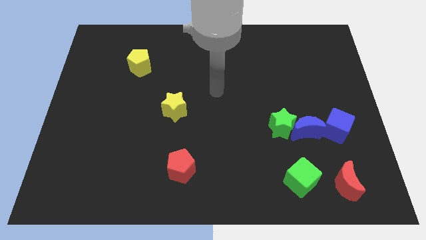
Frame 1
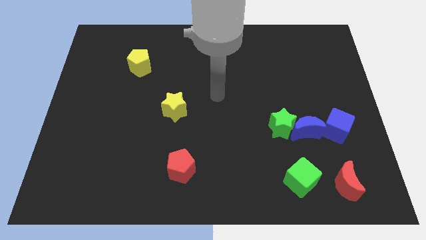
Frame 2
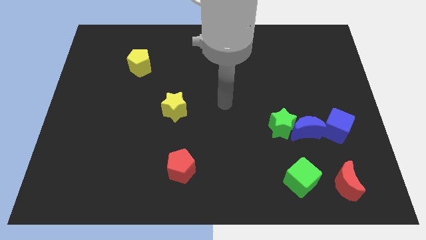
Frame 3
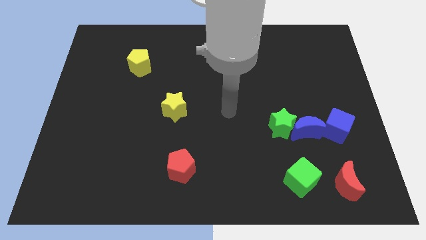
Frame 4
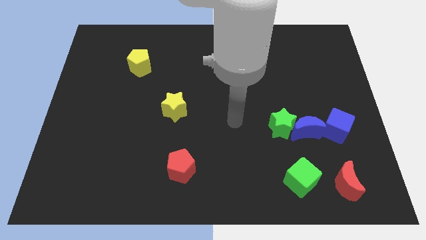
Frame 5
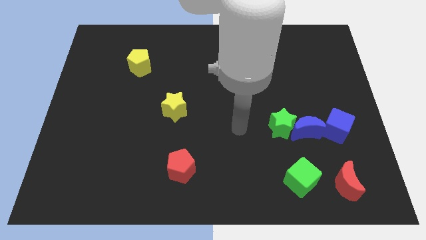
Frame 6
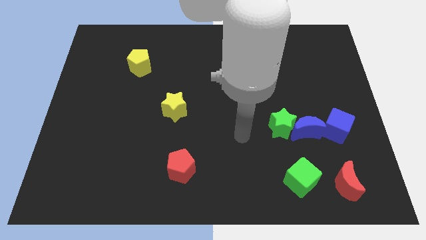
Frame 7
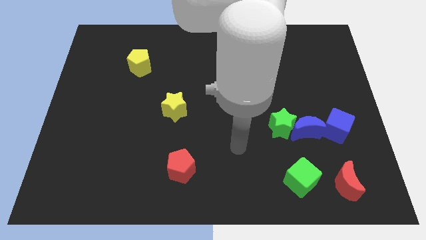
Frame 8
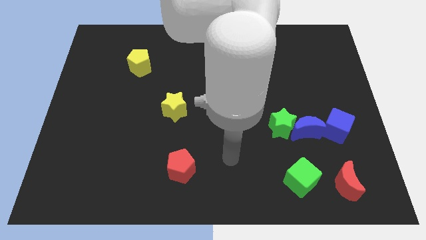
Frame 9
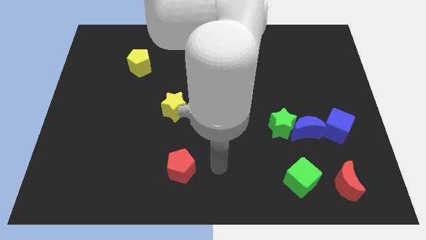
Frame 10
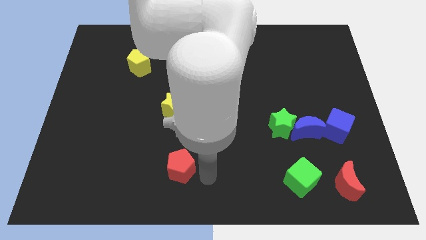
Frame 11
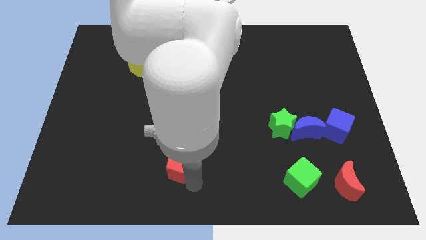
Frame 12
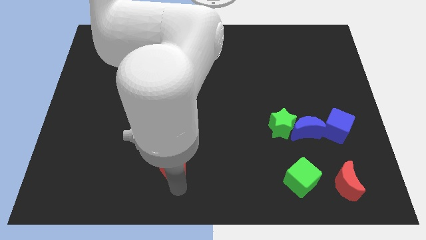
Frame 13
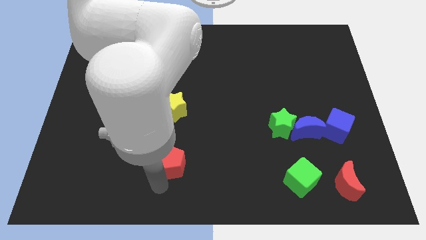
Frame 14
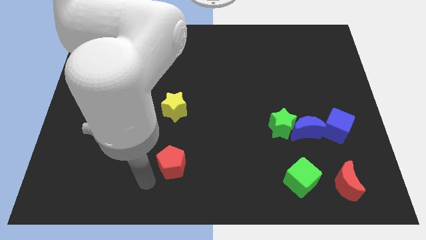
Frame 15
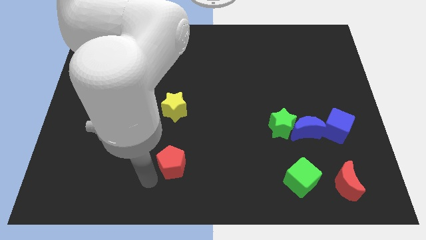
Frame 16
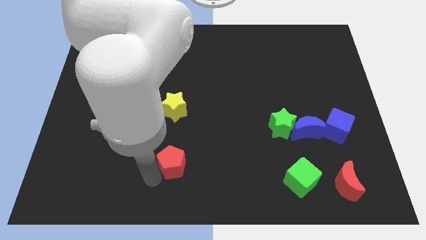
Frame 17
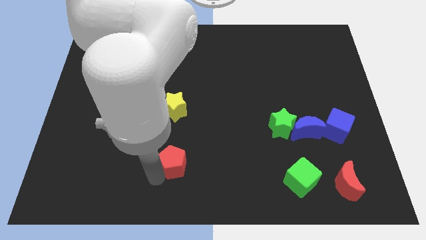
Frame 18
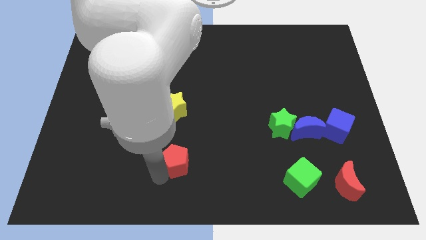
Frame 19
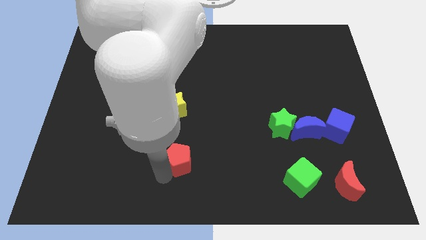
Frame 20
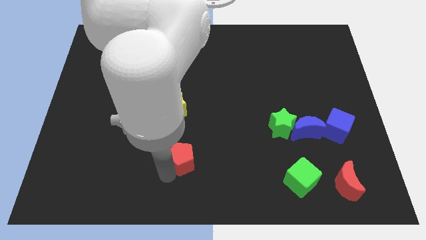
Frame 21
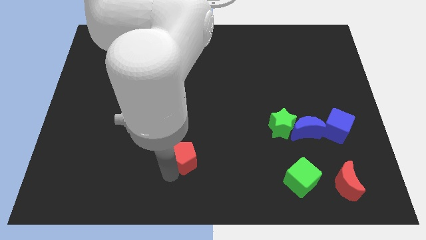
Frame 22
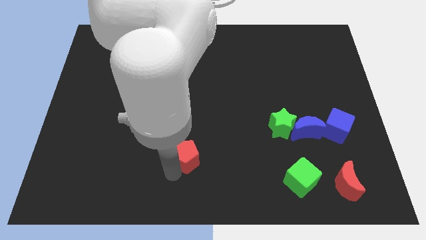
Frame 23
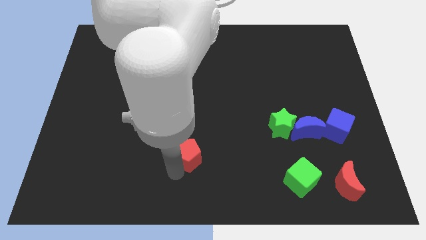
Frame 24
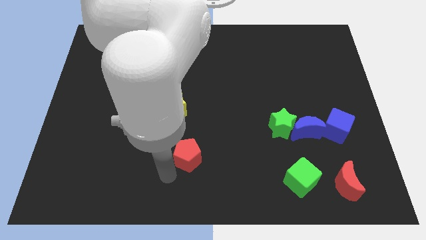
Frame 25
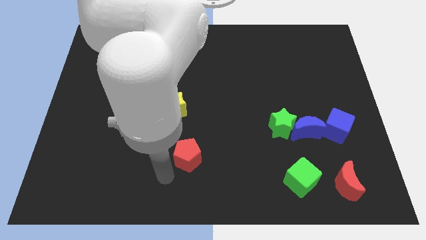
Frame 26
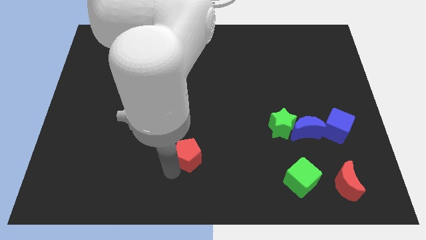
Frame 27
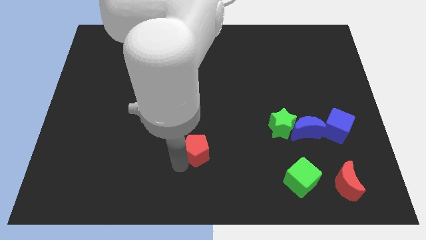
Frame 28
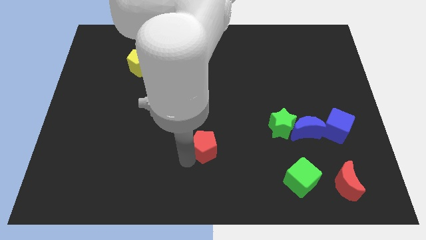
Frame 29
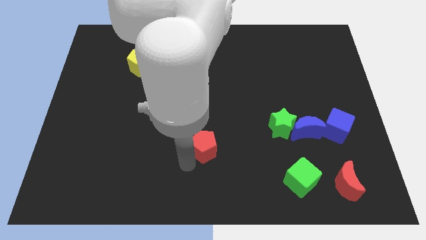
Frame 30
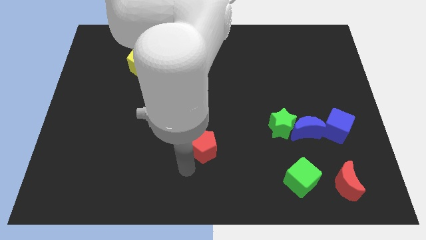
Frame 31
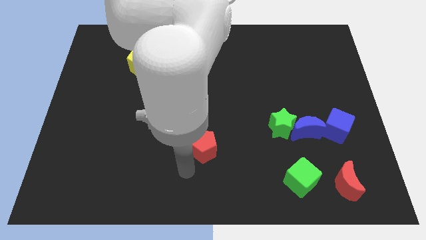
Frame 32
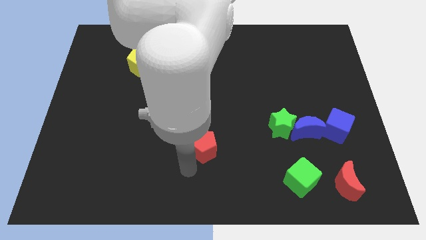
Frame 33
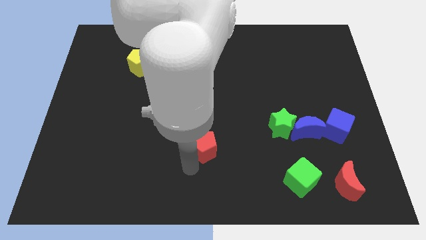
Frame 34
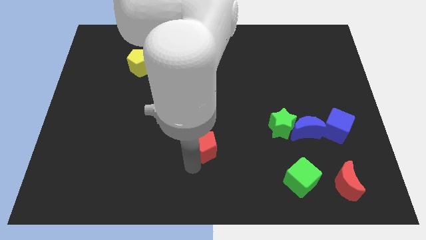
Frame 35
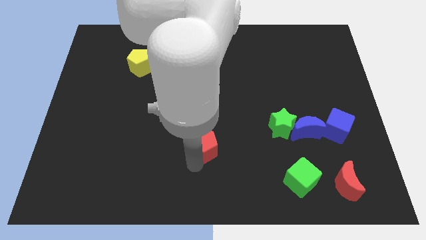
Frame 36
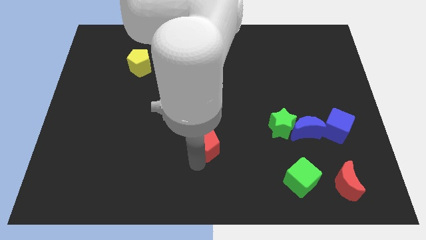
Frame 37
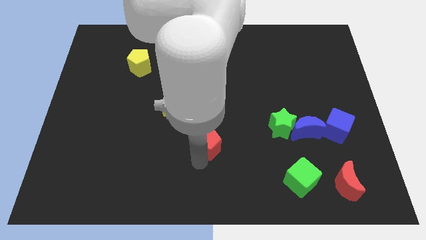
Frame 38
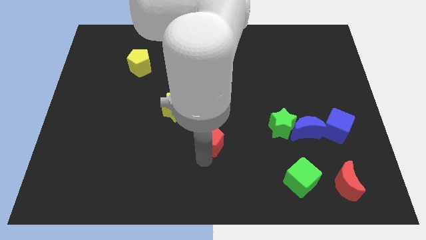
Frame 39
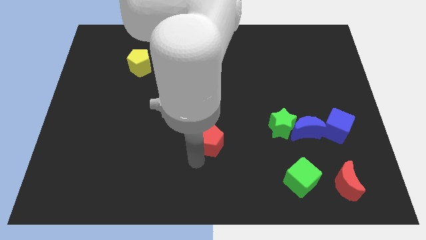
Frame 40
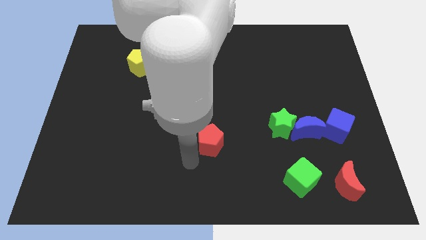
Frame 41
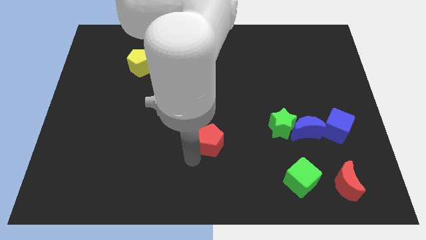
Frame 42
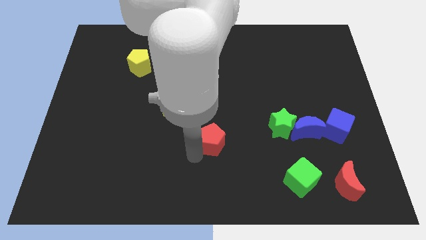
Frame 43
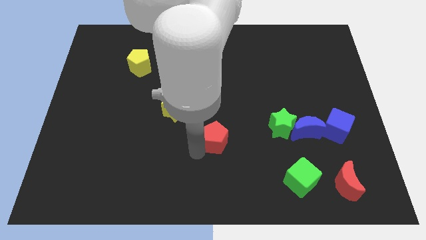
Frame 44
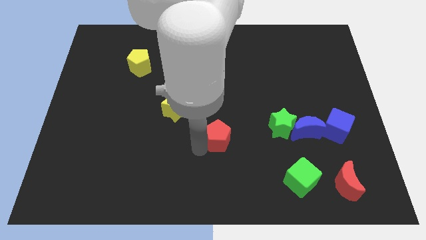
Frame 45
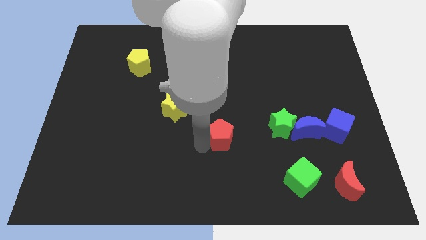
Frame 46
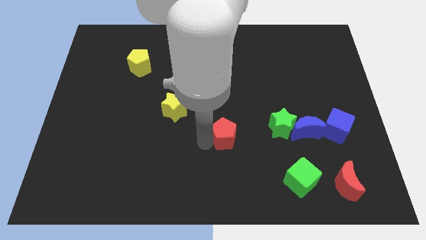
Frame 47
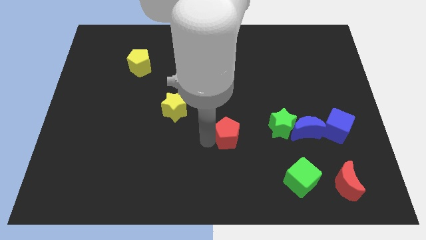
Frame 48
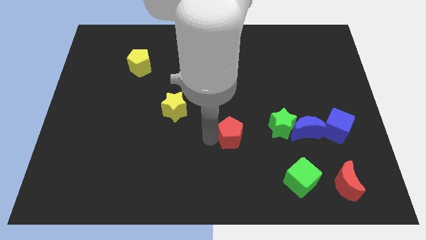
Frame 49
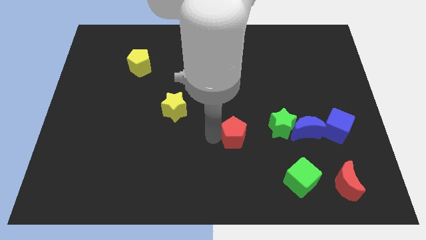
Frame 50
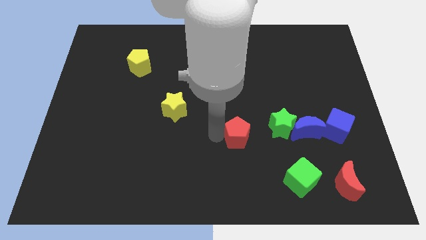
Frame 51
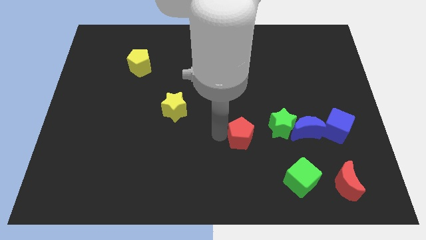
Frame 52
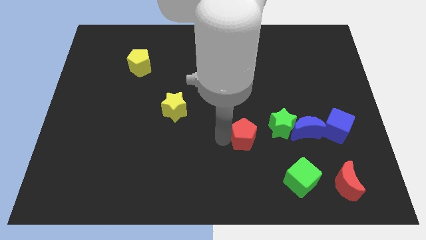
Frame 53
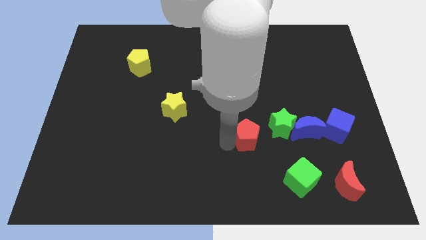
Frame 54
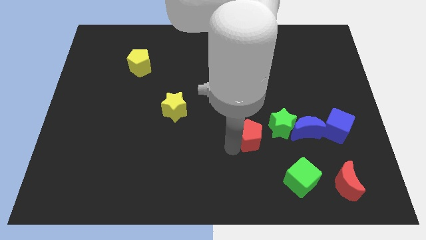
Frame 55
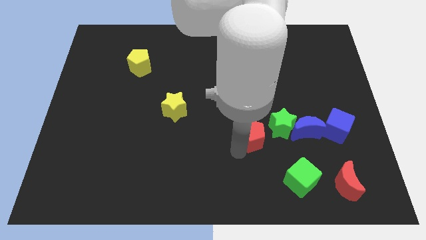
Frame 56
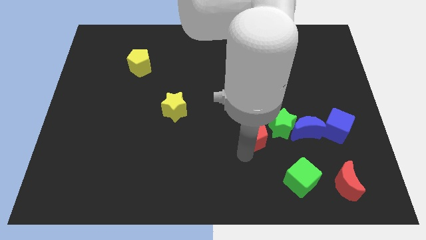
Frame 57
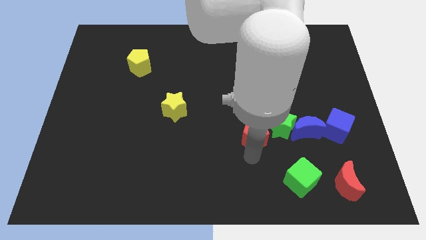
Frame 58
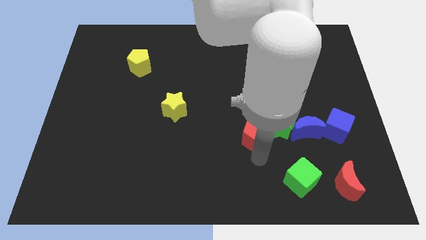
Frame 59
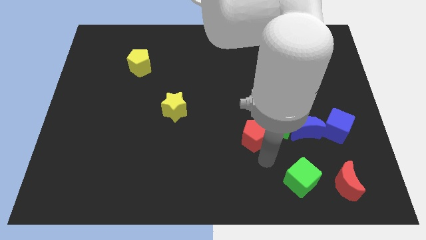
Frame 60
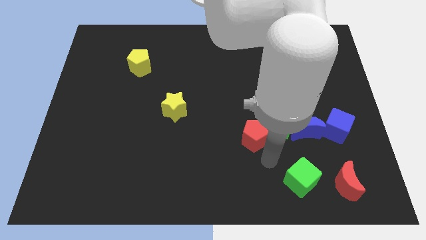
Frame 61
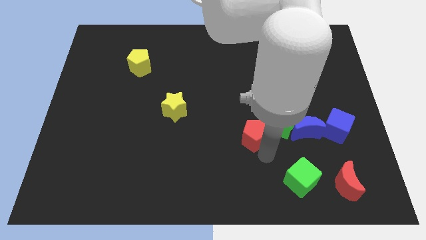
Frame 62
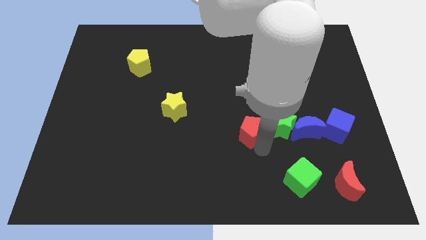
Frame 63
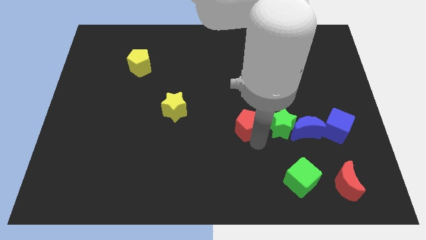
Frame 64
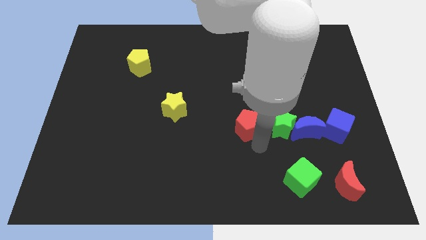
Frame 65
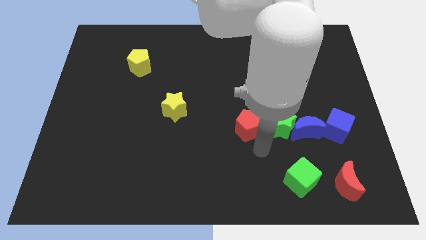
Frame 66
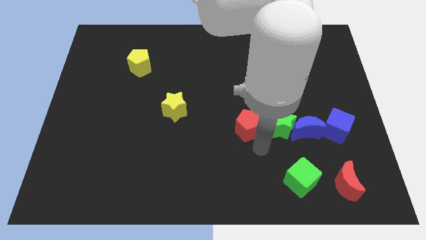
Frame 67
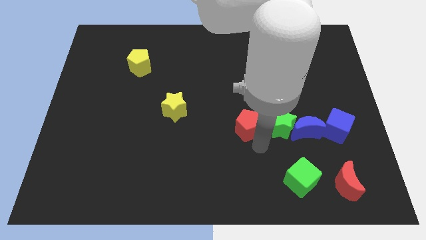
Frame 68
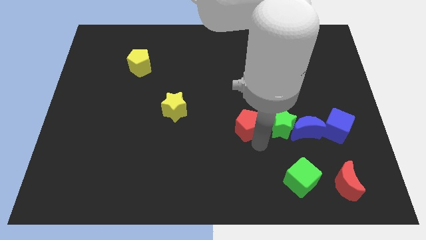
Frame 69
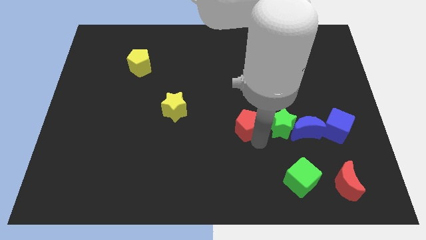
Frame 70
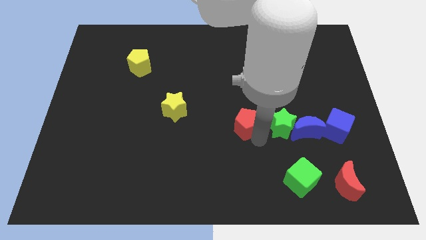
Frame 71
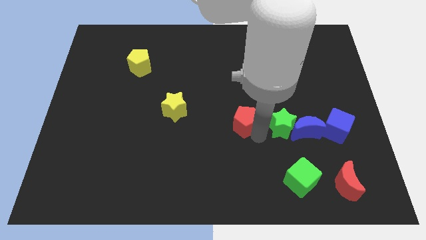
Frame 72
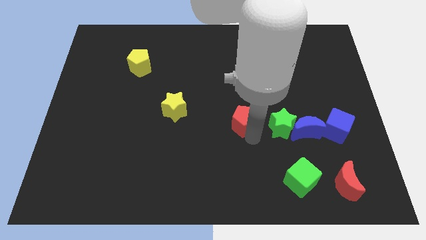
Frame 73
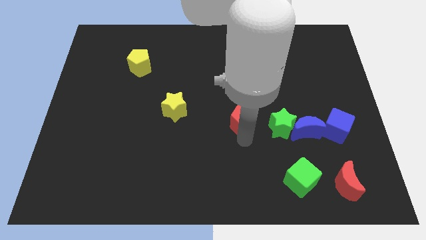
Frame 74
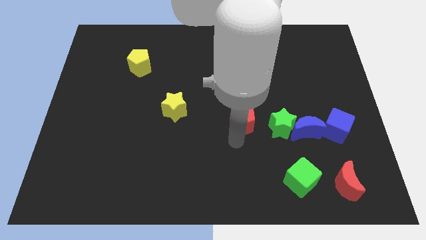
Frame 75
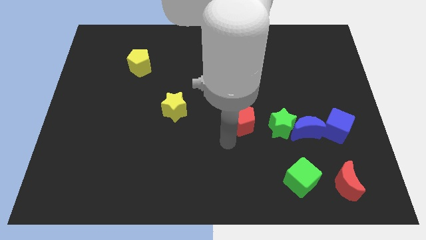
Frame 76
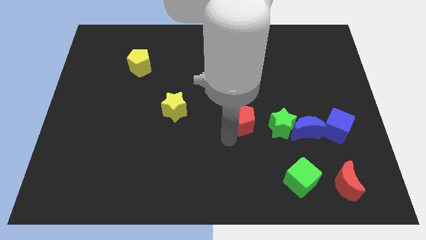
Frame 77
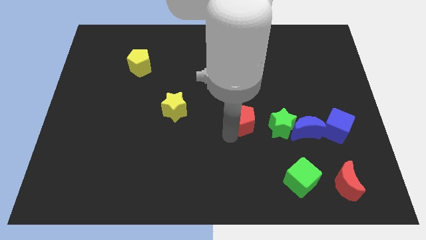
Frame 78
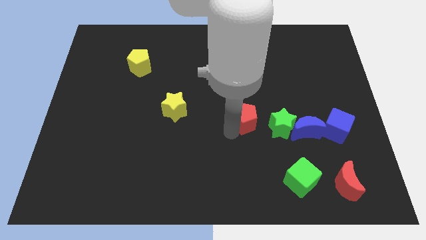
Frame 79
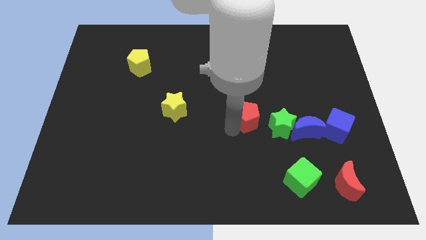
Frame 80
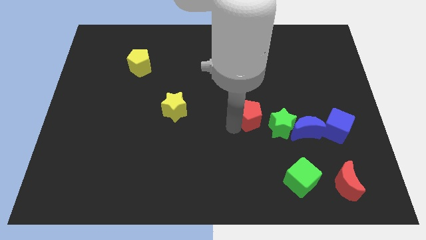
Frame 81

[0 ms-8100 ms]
move the red pentagon upwards and then right
